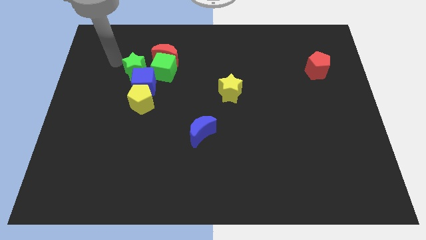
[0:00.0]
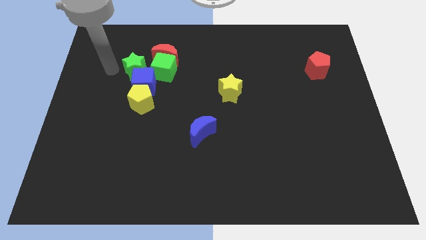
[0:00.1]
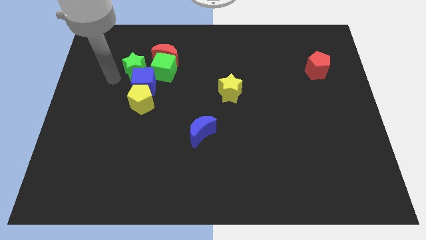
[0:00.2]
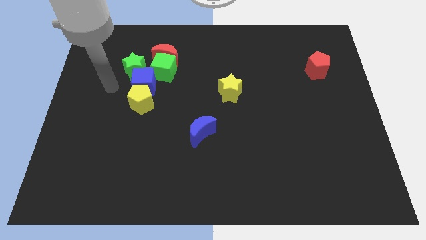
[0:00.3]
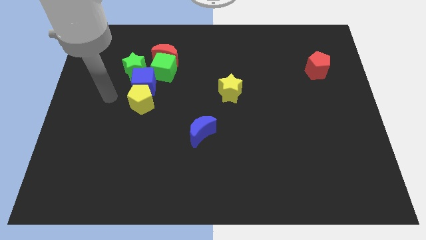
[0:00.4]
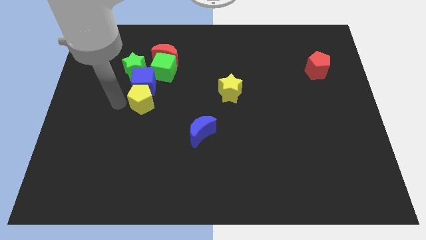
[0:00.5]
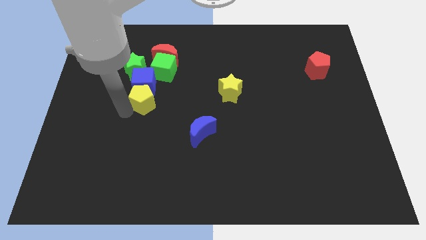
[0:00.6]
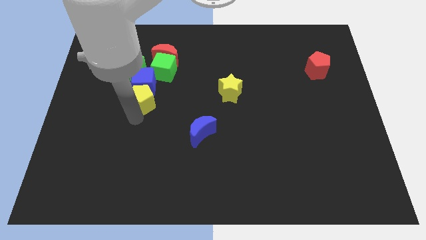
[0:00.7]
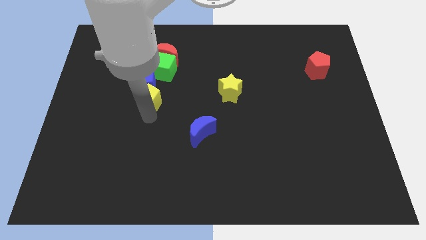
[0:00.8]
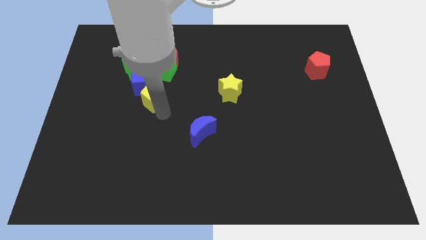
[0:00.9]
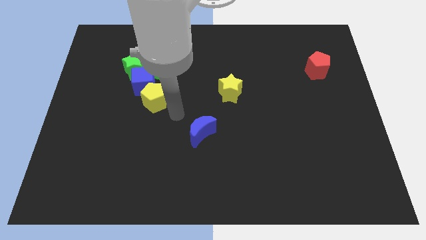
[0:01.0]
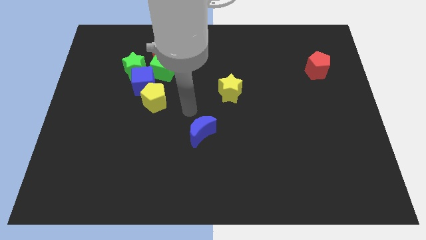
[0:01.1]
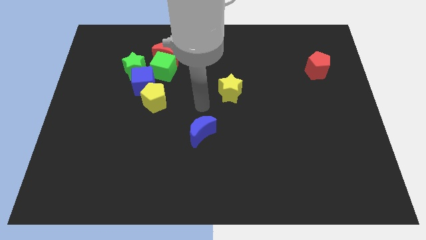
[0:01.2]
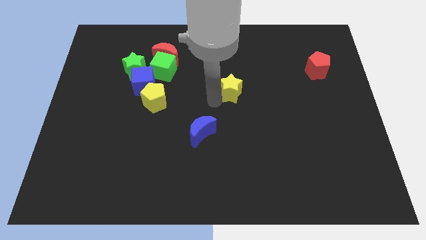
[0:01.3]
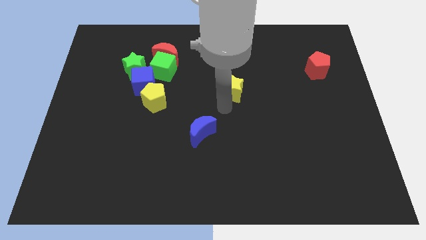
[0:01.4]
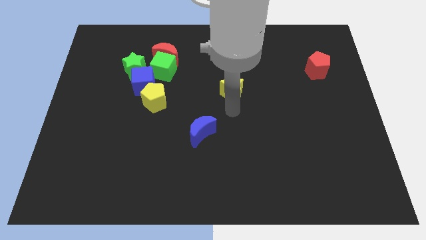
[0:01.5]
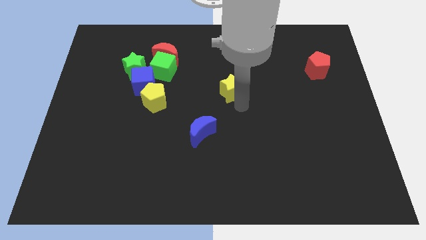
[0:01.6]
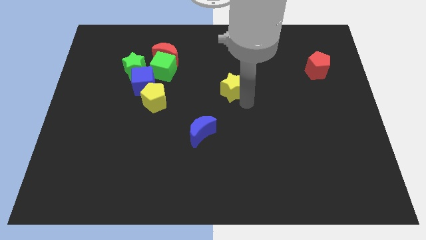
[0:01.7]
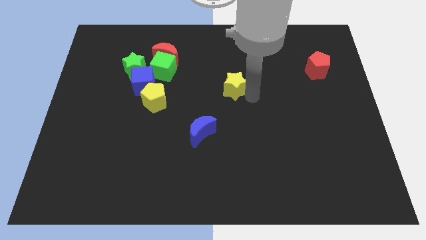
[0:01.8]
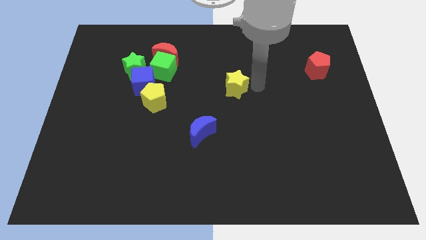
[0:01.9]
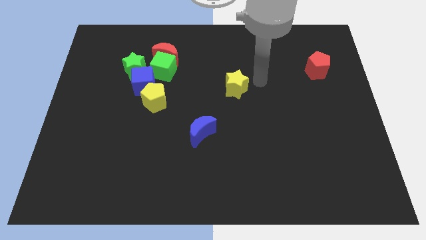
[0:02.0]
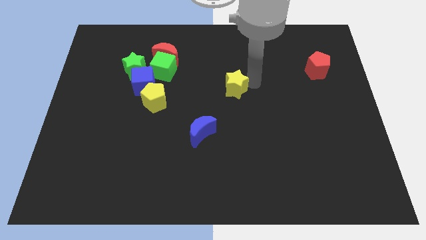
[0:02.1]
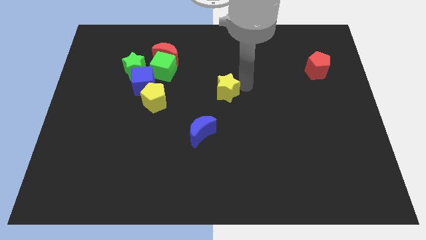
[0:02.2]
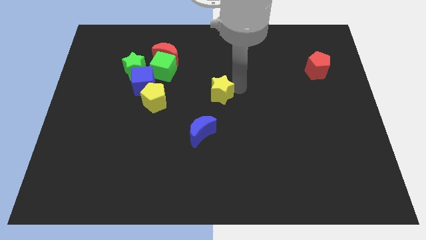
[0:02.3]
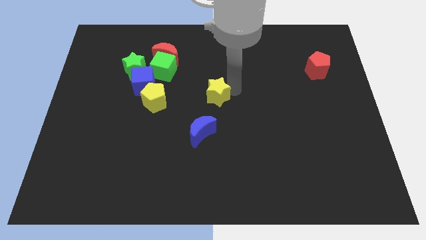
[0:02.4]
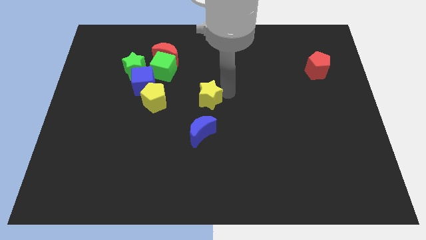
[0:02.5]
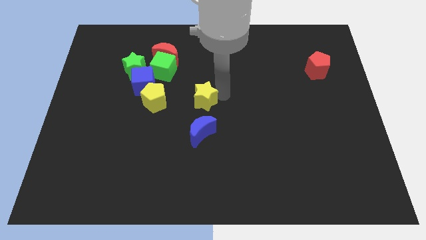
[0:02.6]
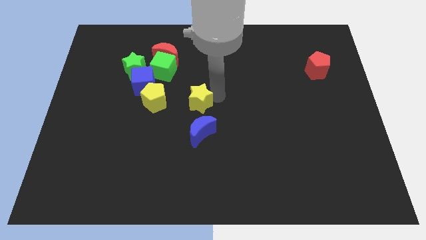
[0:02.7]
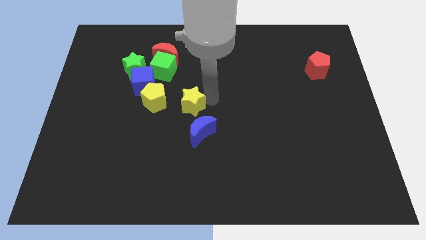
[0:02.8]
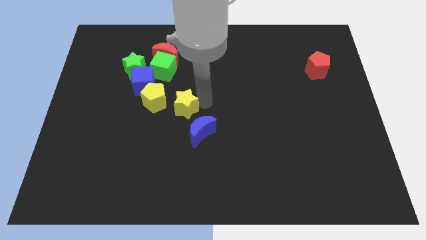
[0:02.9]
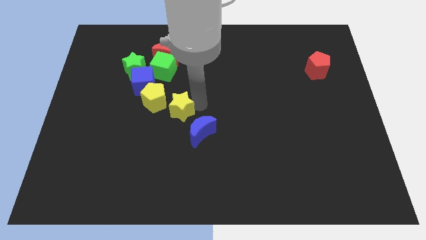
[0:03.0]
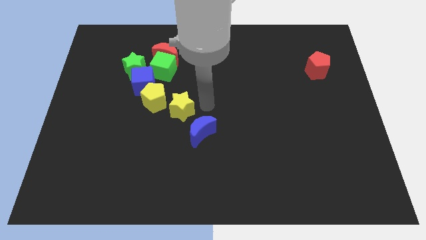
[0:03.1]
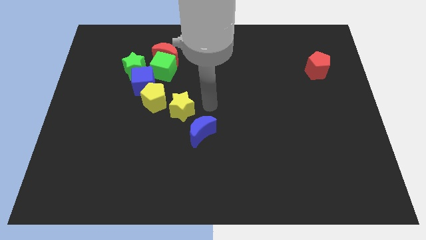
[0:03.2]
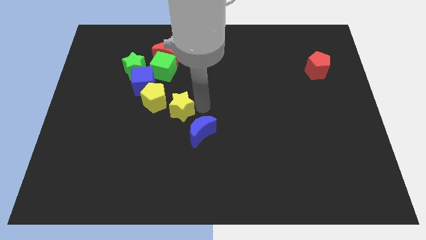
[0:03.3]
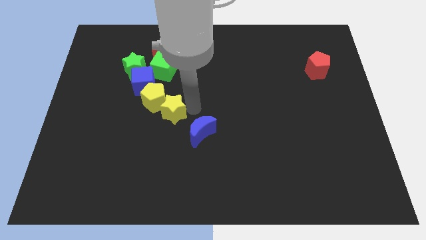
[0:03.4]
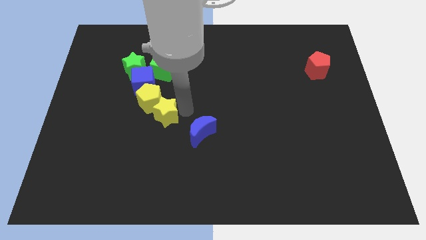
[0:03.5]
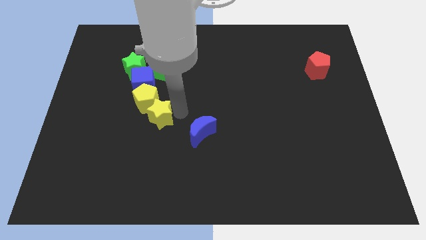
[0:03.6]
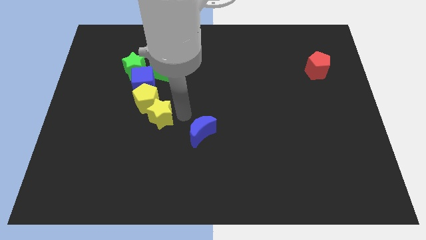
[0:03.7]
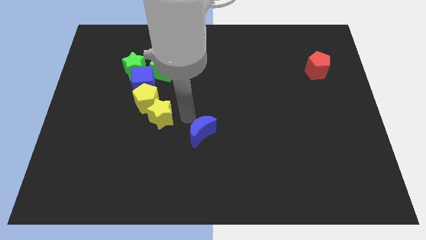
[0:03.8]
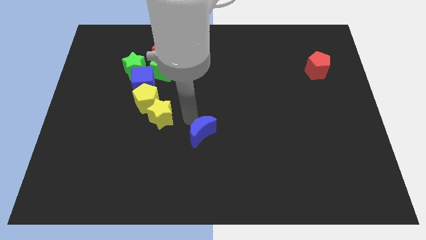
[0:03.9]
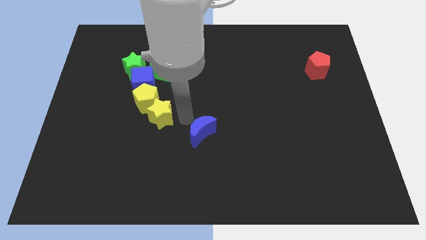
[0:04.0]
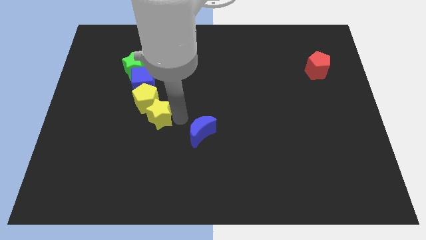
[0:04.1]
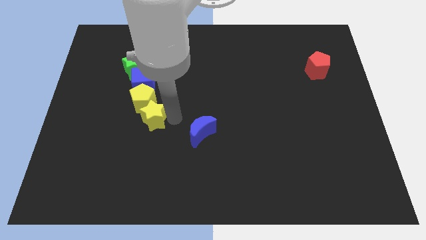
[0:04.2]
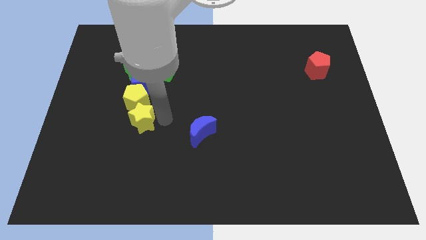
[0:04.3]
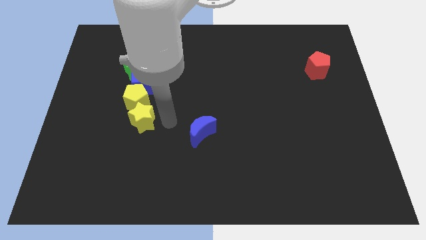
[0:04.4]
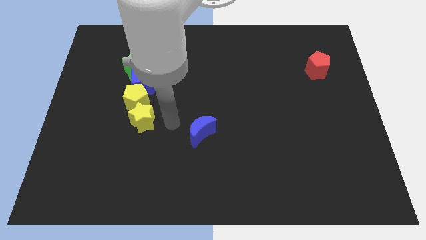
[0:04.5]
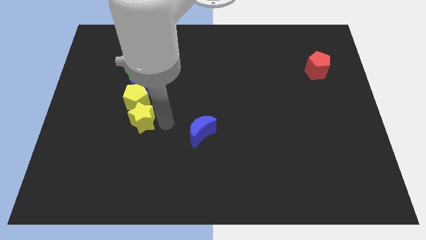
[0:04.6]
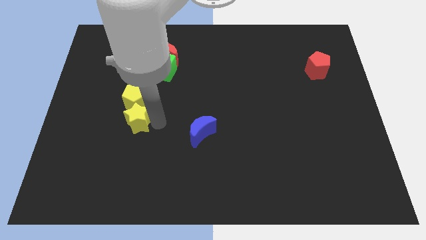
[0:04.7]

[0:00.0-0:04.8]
push the yellow star to the bottom left of the yellow pentagon

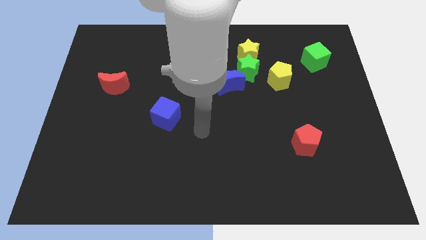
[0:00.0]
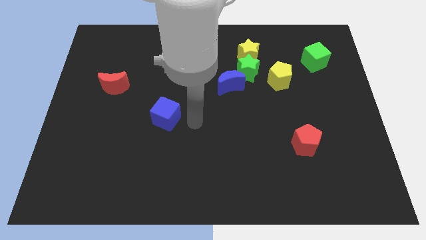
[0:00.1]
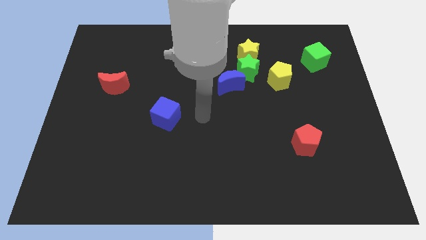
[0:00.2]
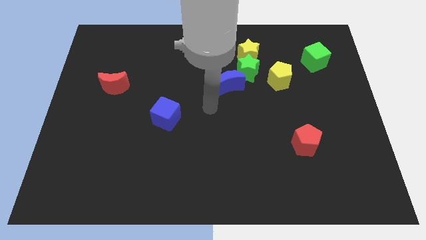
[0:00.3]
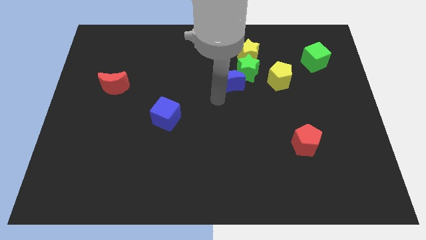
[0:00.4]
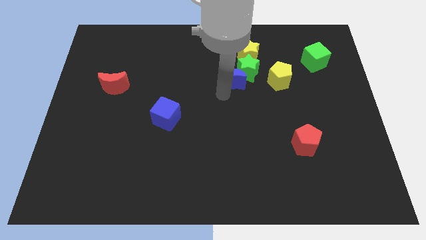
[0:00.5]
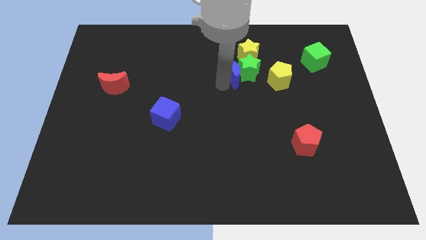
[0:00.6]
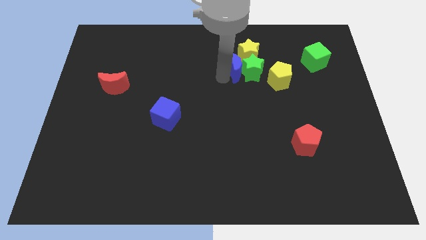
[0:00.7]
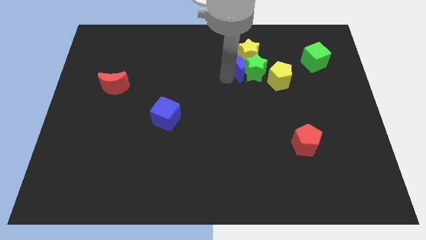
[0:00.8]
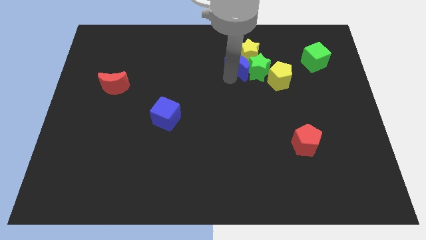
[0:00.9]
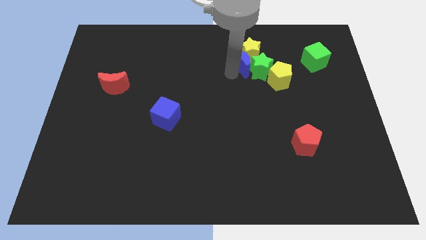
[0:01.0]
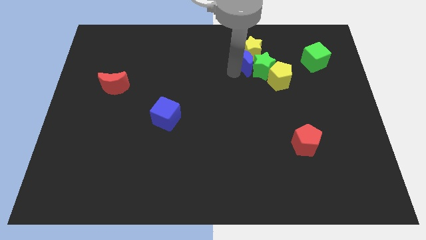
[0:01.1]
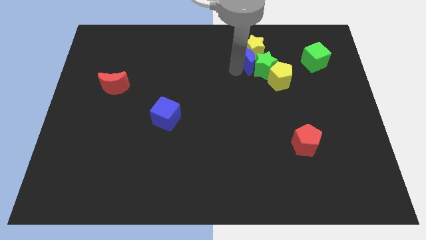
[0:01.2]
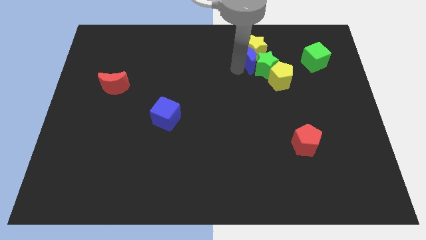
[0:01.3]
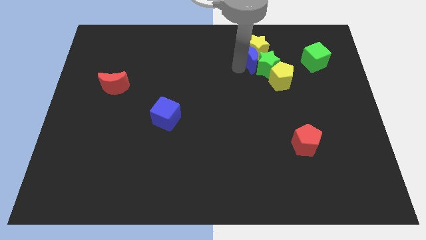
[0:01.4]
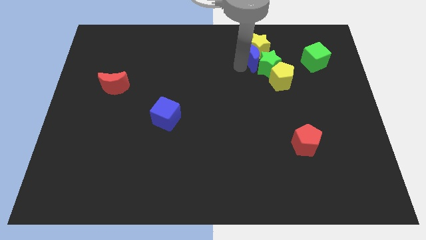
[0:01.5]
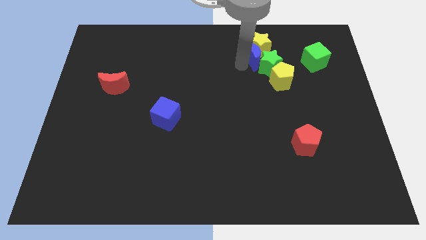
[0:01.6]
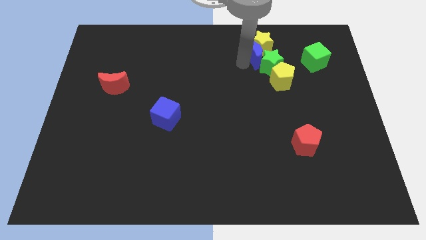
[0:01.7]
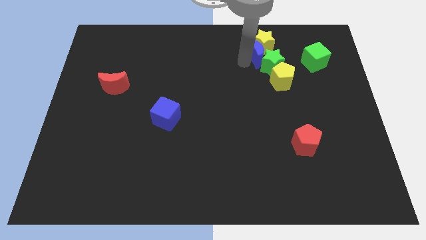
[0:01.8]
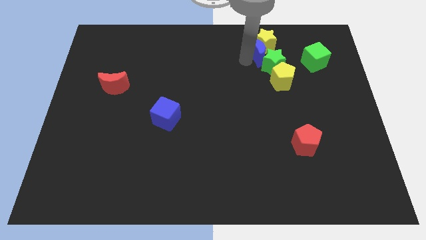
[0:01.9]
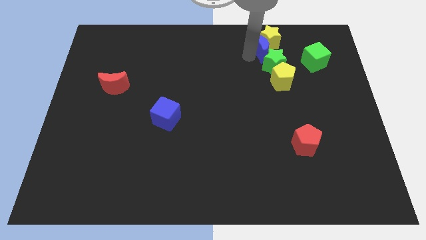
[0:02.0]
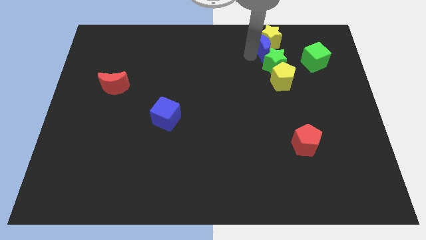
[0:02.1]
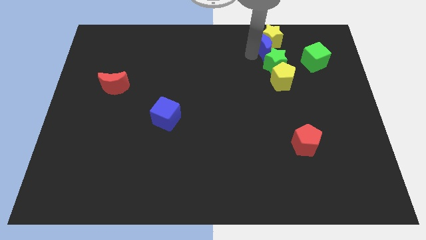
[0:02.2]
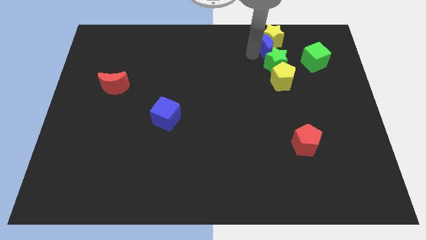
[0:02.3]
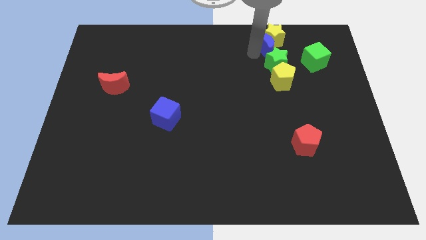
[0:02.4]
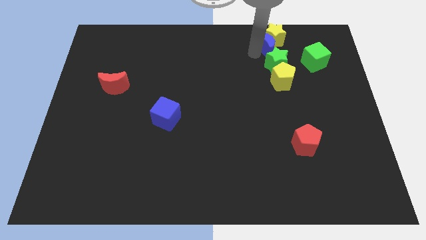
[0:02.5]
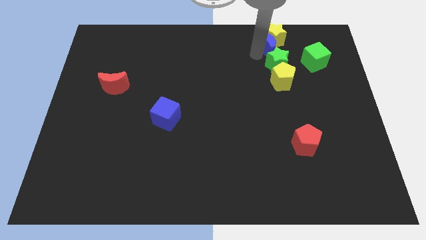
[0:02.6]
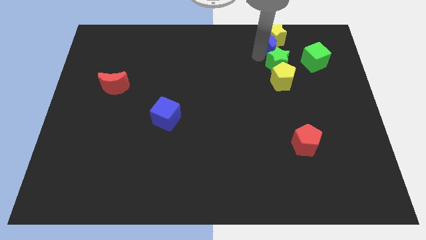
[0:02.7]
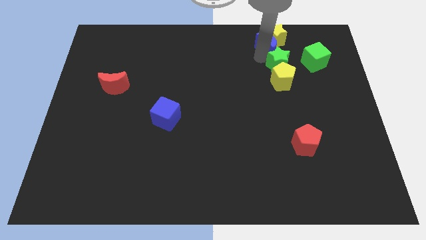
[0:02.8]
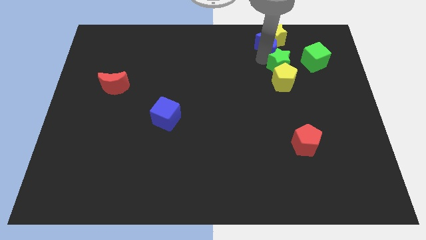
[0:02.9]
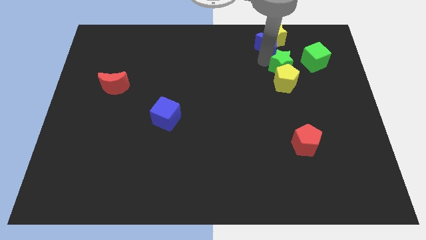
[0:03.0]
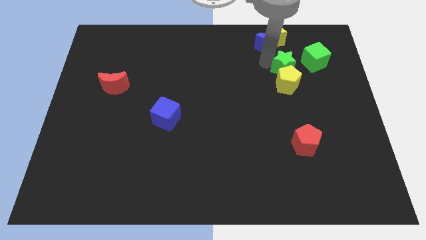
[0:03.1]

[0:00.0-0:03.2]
push the green star to the bottom left of the green cube
